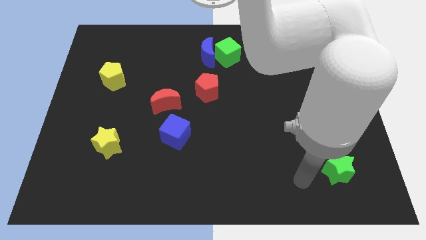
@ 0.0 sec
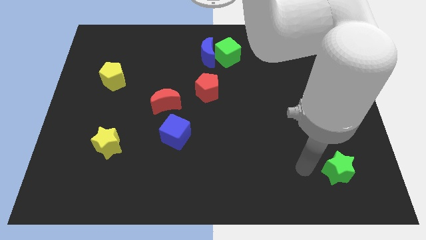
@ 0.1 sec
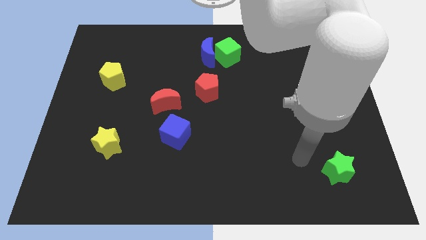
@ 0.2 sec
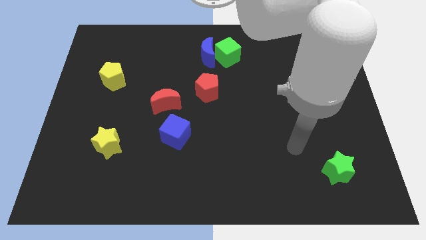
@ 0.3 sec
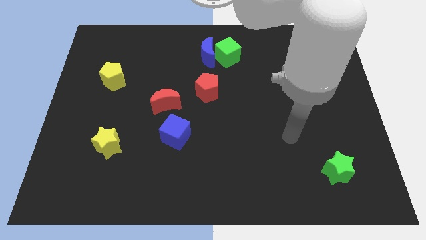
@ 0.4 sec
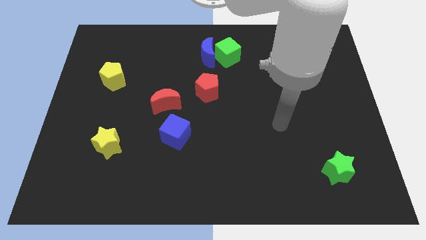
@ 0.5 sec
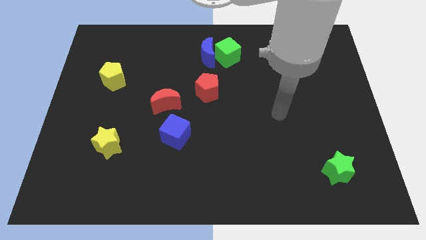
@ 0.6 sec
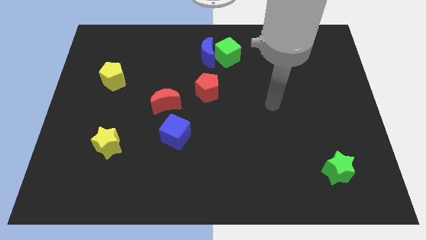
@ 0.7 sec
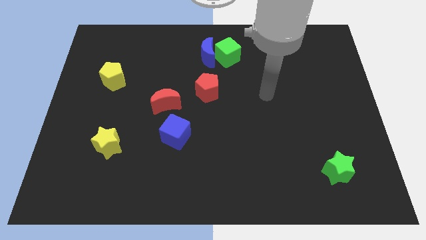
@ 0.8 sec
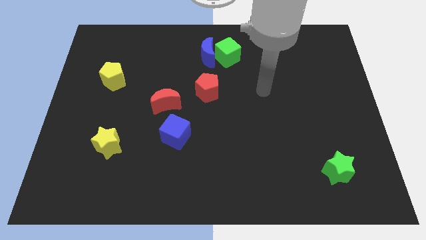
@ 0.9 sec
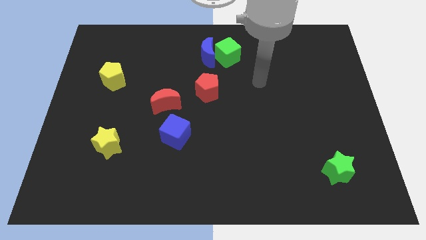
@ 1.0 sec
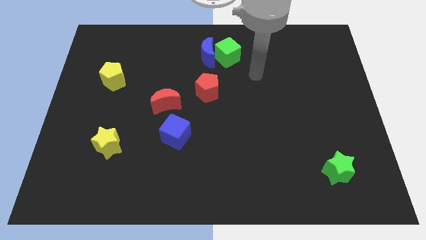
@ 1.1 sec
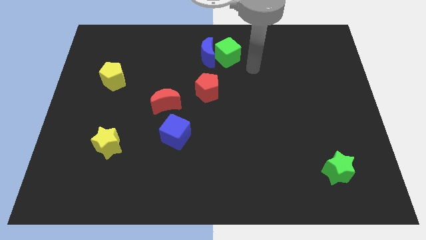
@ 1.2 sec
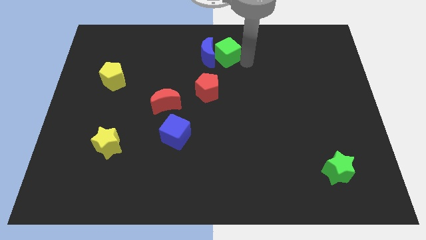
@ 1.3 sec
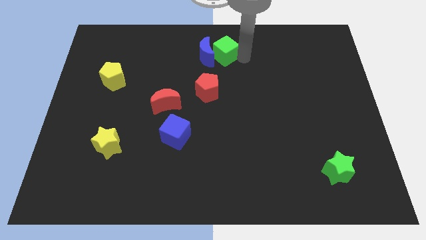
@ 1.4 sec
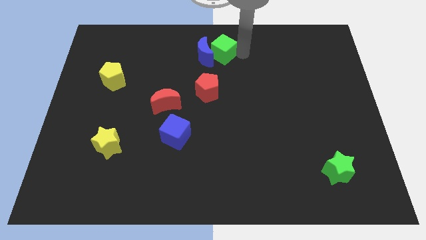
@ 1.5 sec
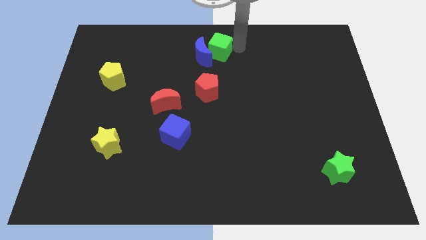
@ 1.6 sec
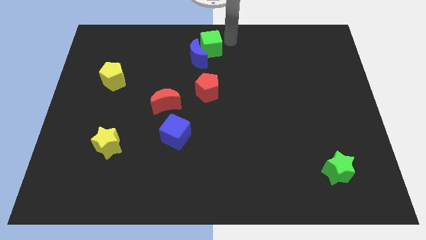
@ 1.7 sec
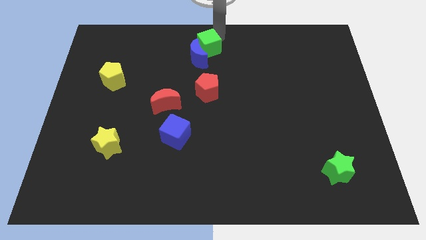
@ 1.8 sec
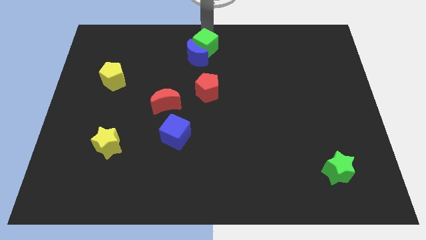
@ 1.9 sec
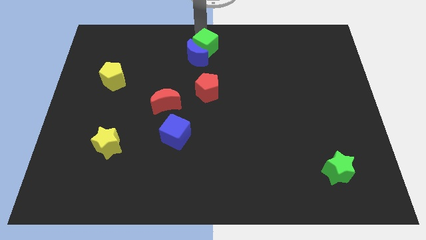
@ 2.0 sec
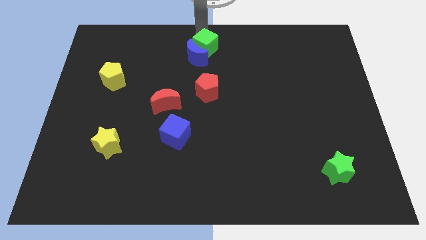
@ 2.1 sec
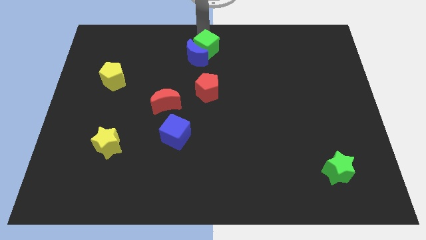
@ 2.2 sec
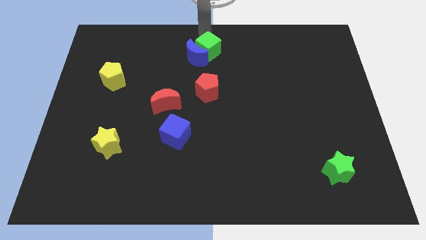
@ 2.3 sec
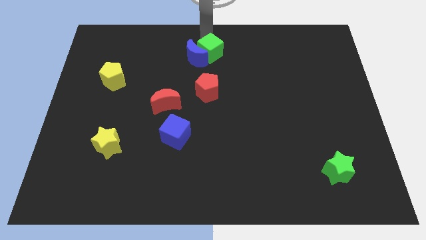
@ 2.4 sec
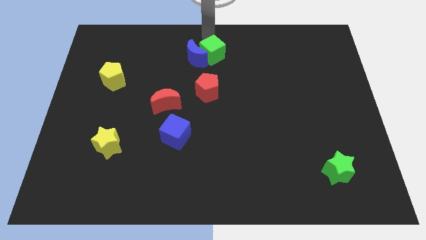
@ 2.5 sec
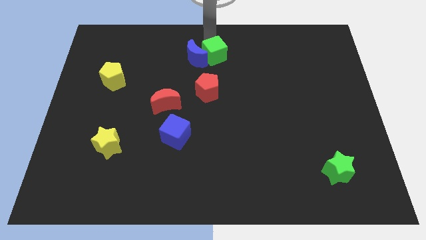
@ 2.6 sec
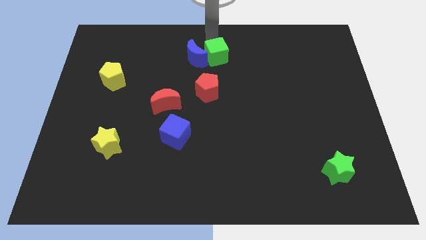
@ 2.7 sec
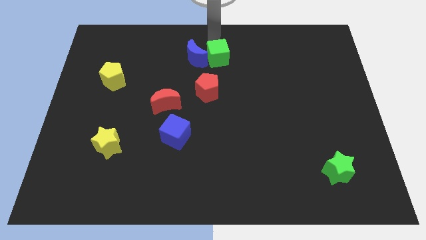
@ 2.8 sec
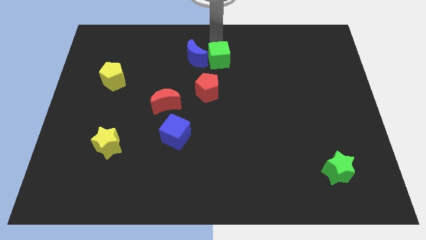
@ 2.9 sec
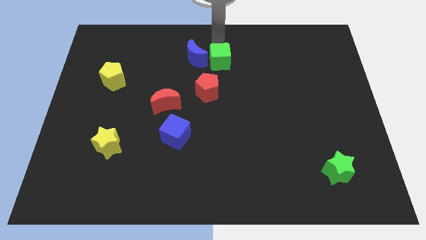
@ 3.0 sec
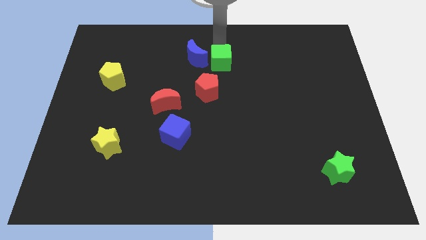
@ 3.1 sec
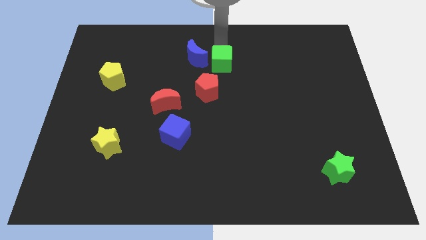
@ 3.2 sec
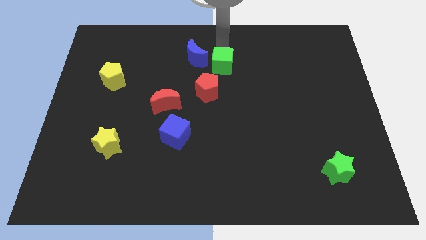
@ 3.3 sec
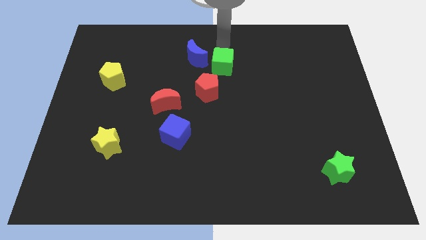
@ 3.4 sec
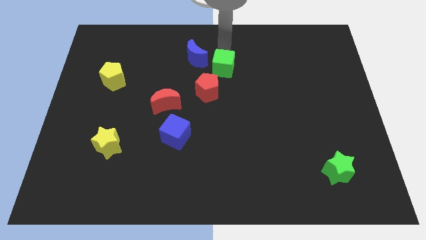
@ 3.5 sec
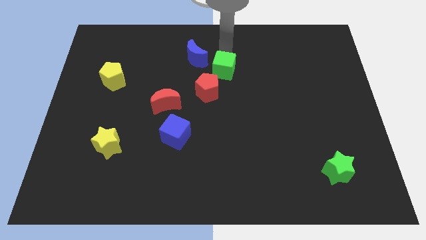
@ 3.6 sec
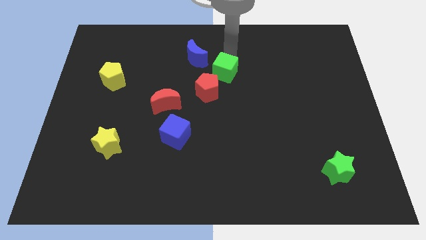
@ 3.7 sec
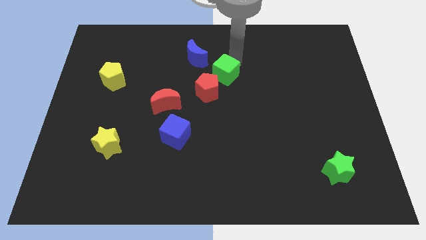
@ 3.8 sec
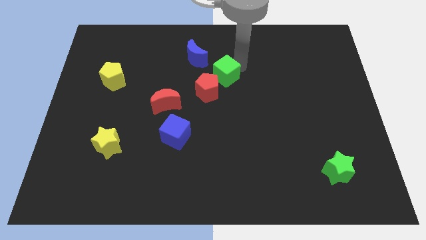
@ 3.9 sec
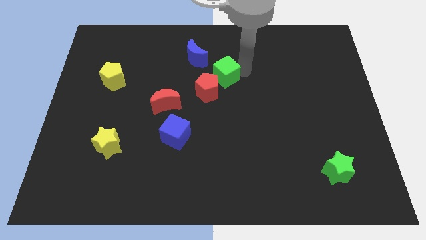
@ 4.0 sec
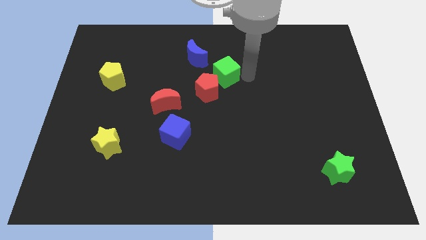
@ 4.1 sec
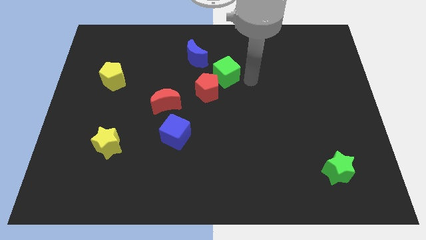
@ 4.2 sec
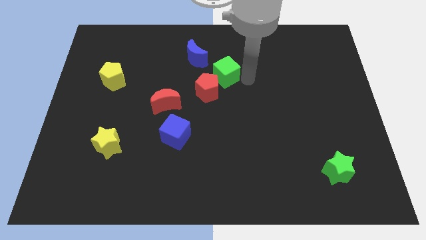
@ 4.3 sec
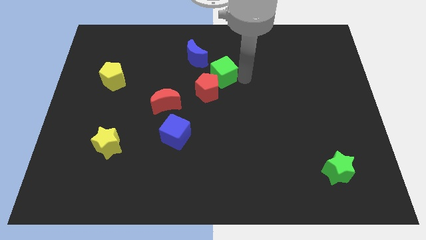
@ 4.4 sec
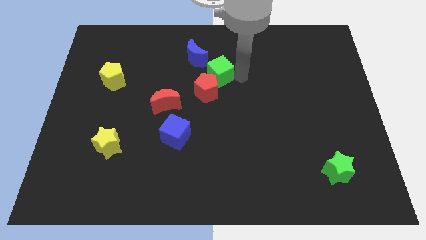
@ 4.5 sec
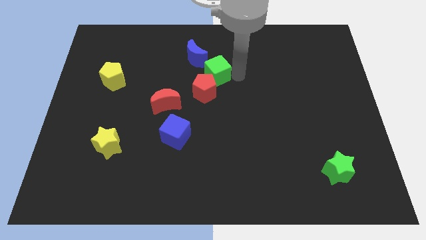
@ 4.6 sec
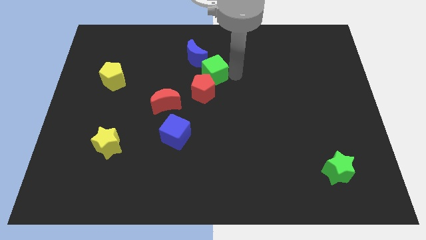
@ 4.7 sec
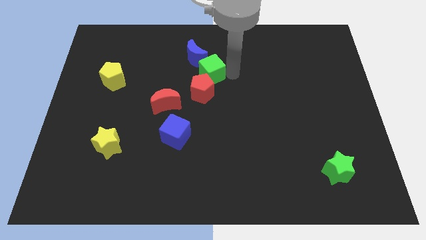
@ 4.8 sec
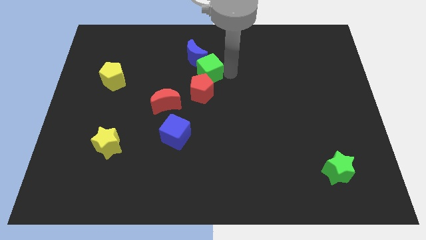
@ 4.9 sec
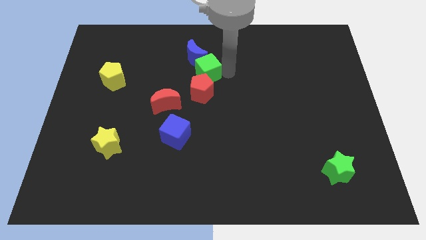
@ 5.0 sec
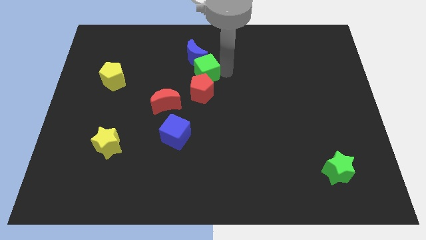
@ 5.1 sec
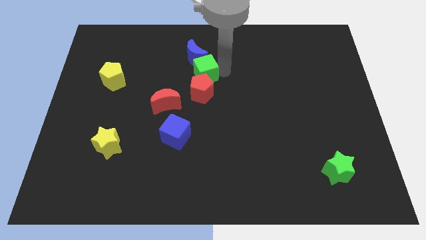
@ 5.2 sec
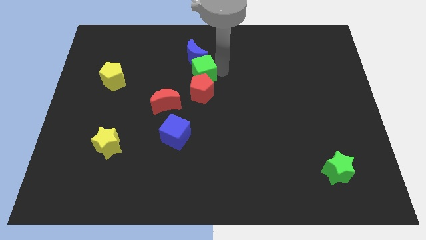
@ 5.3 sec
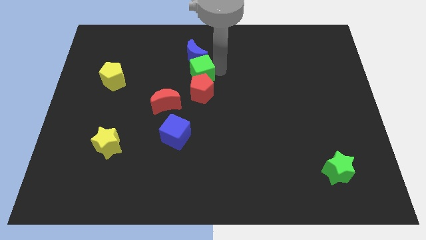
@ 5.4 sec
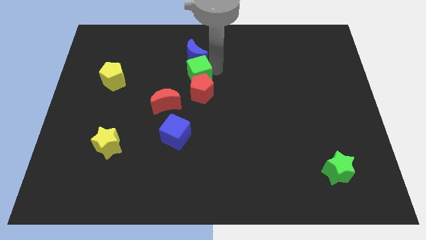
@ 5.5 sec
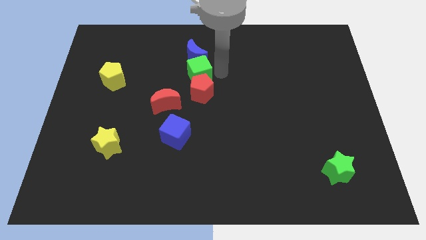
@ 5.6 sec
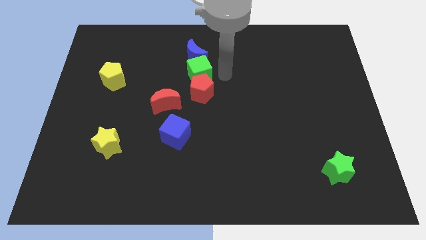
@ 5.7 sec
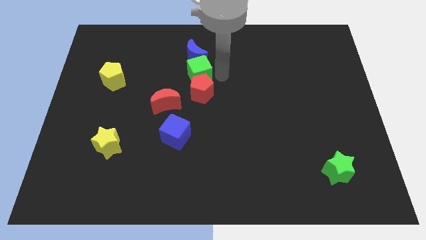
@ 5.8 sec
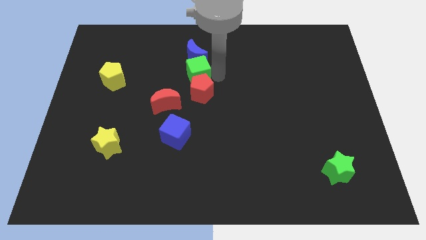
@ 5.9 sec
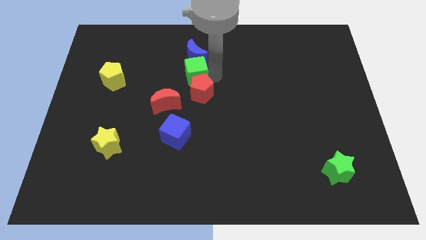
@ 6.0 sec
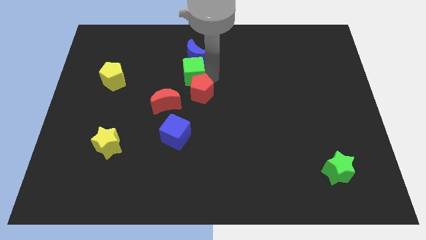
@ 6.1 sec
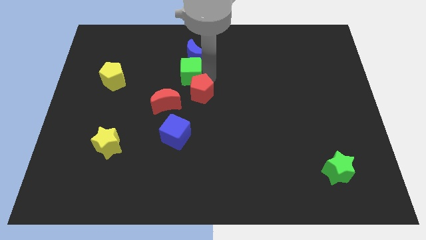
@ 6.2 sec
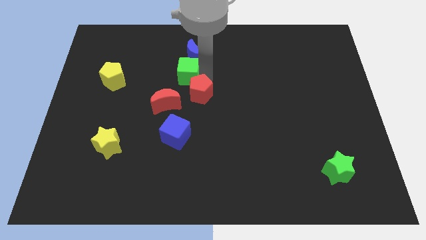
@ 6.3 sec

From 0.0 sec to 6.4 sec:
put the green cube to the top side of the red moon

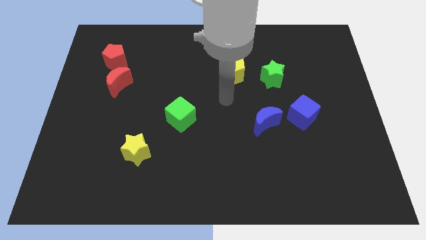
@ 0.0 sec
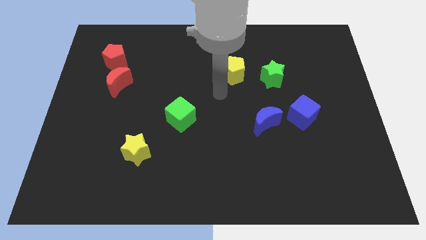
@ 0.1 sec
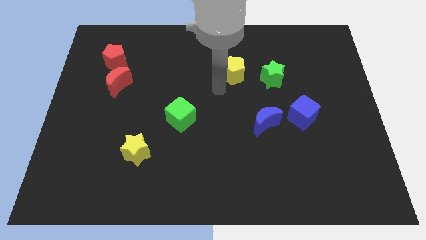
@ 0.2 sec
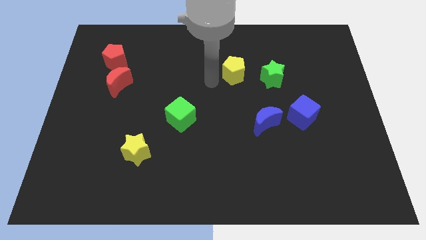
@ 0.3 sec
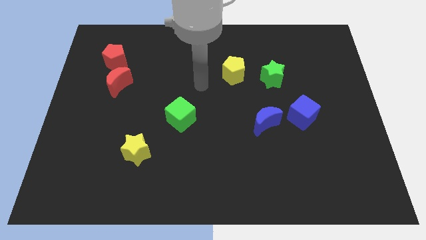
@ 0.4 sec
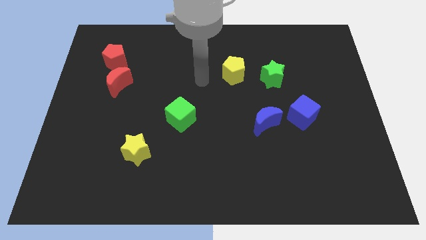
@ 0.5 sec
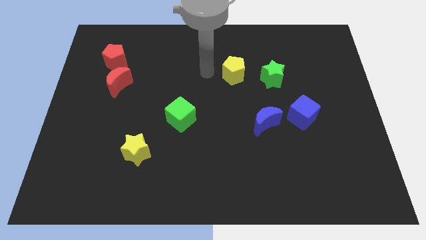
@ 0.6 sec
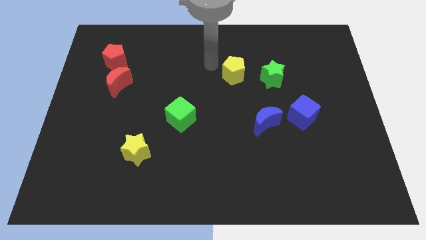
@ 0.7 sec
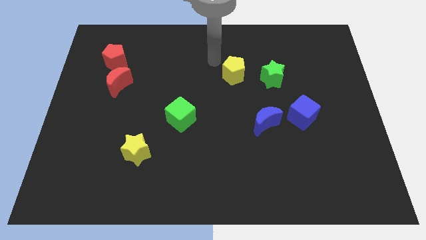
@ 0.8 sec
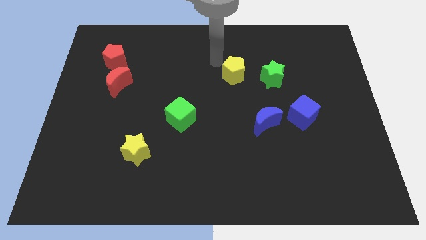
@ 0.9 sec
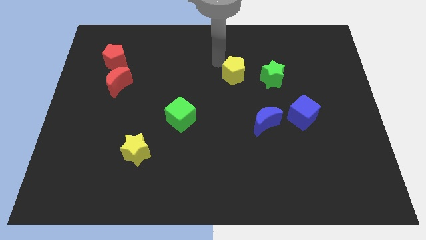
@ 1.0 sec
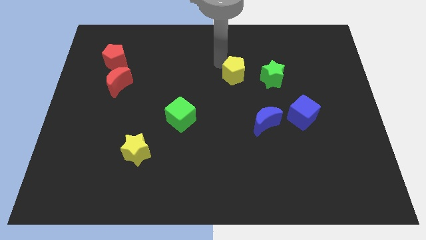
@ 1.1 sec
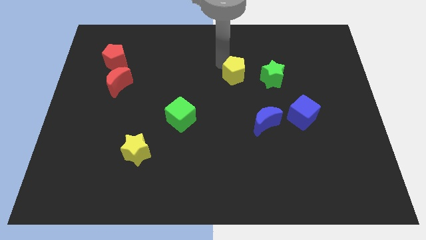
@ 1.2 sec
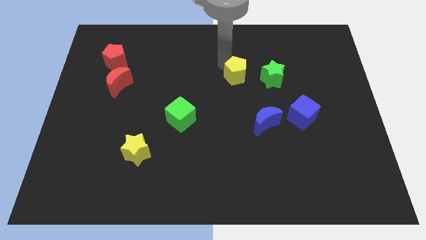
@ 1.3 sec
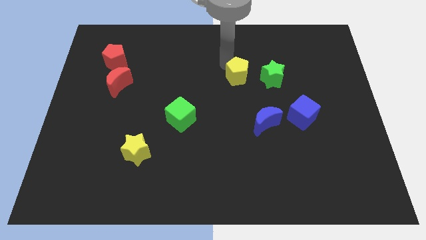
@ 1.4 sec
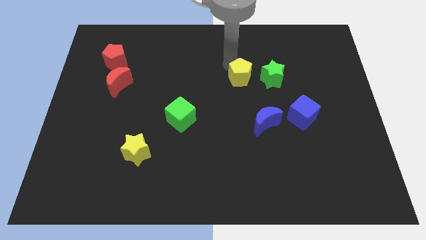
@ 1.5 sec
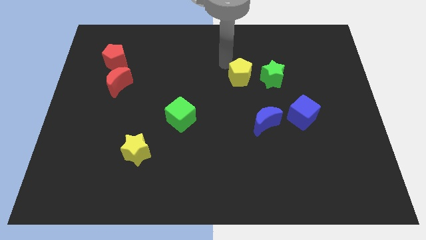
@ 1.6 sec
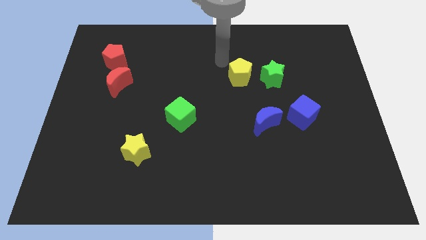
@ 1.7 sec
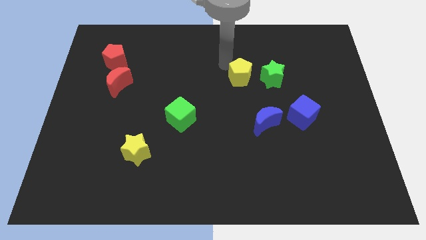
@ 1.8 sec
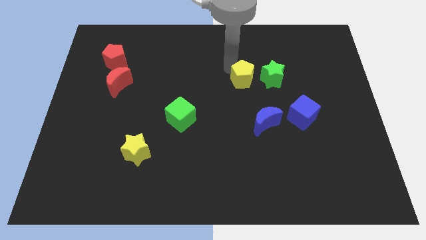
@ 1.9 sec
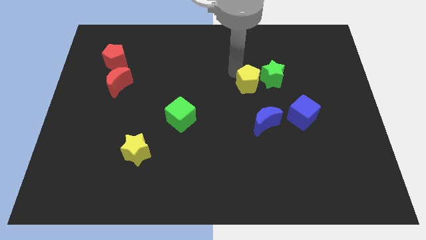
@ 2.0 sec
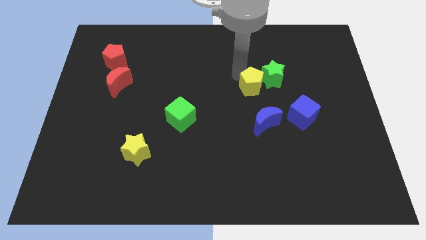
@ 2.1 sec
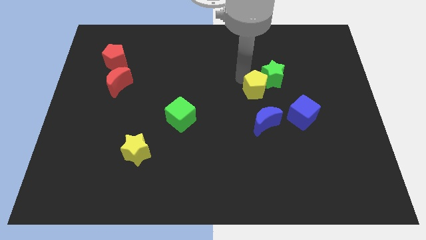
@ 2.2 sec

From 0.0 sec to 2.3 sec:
push the yellow pentagon below the green star
